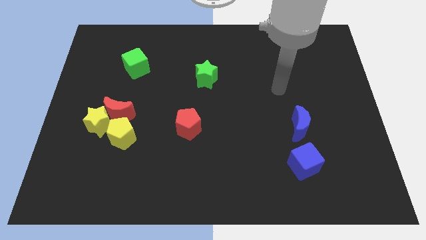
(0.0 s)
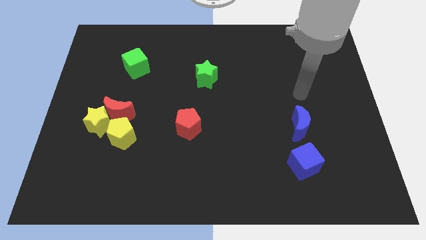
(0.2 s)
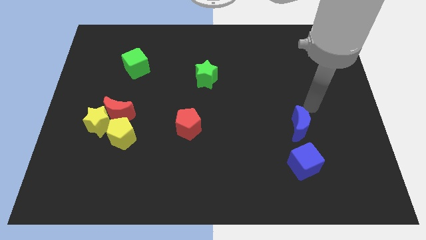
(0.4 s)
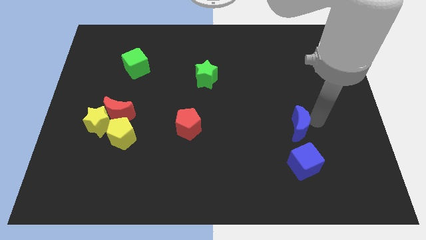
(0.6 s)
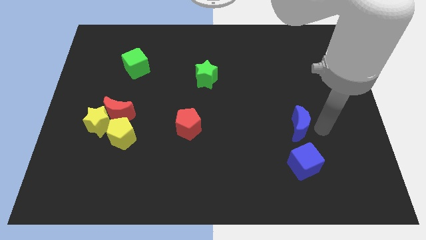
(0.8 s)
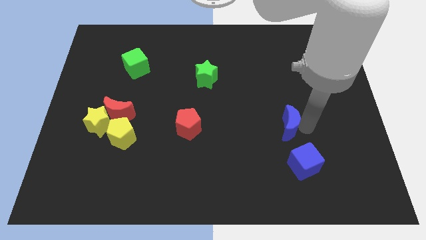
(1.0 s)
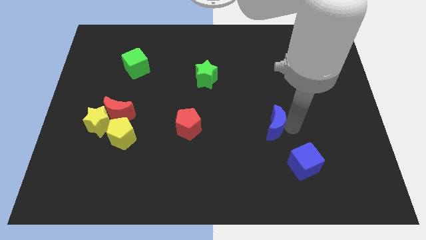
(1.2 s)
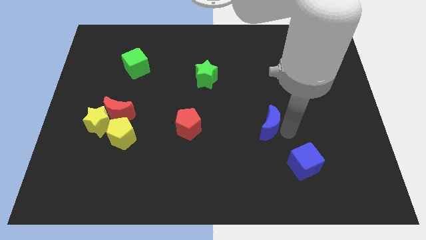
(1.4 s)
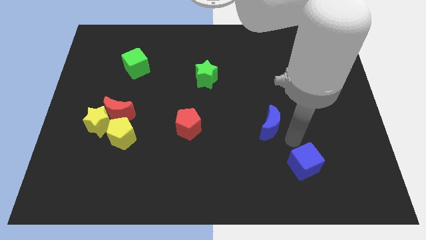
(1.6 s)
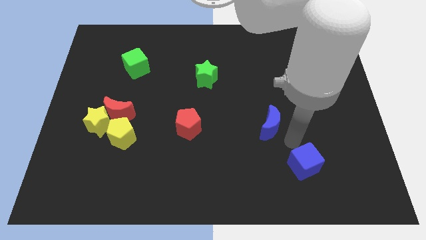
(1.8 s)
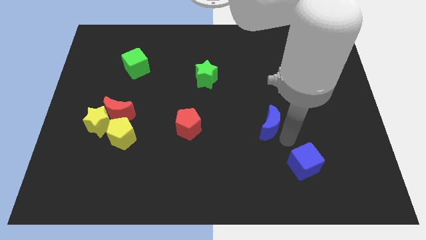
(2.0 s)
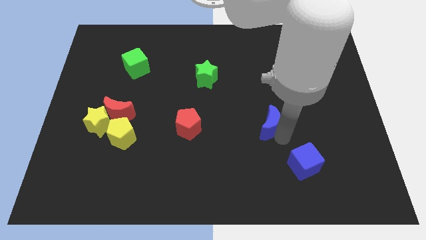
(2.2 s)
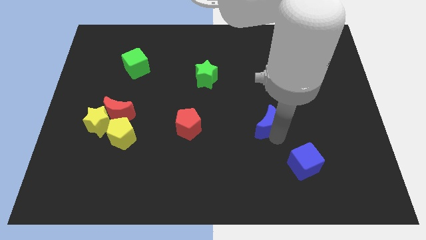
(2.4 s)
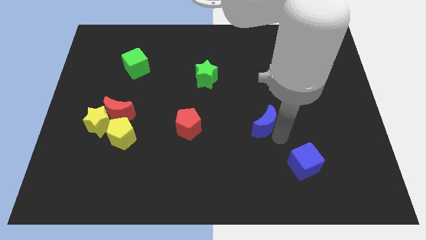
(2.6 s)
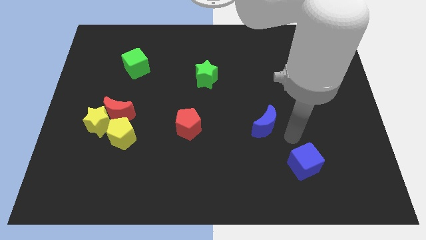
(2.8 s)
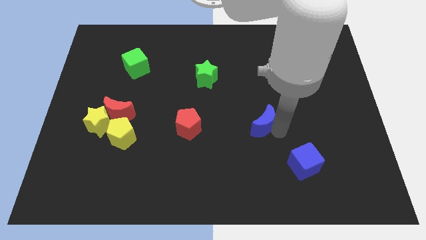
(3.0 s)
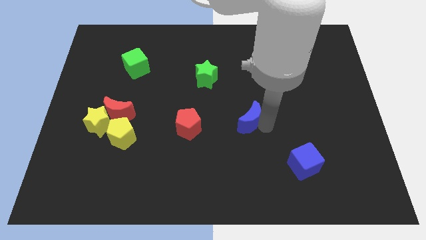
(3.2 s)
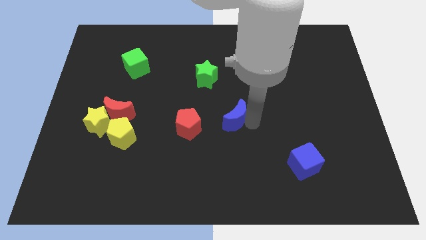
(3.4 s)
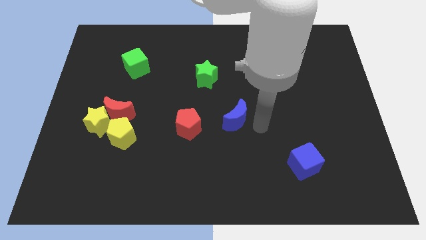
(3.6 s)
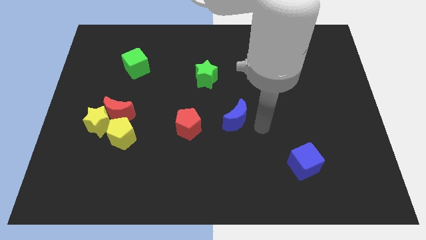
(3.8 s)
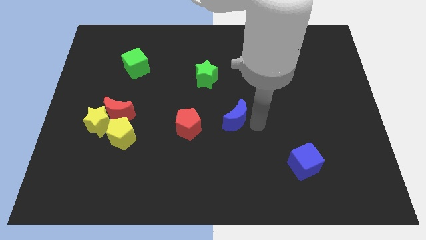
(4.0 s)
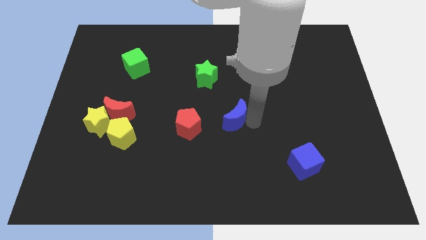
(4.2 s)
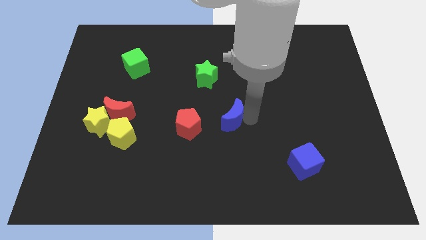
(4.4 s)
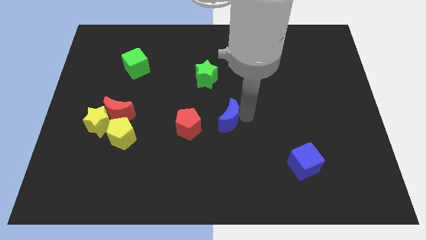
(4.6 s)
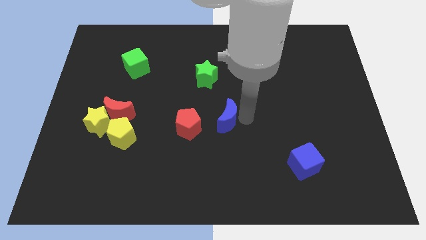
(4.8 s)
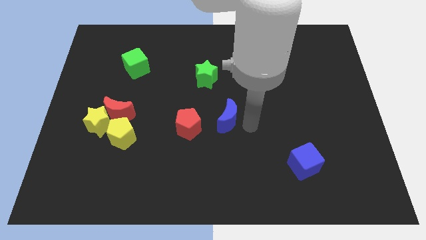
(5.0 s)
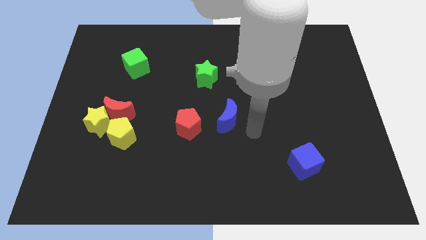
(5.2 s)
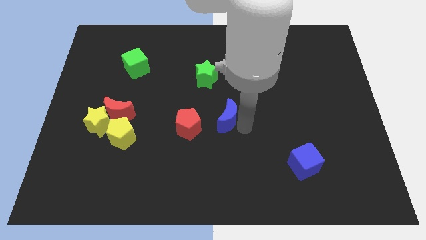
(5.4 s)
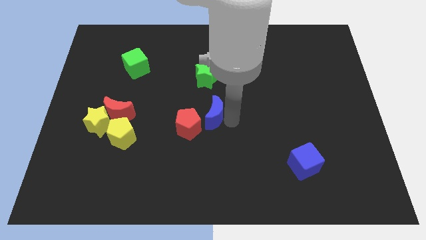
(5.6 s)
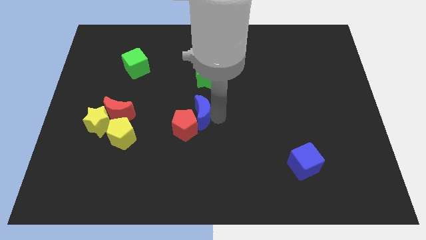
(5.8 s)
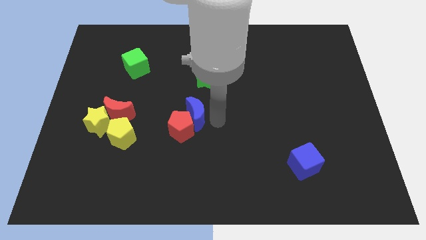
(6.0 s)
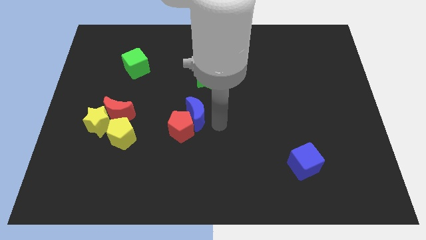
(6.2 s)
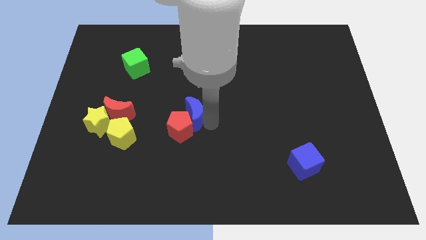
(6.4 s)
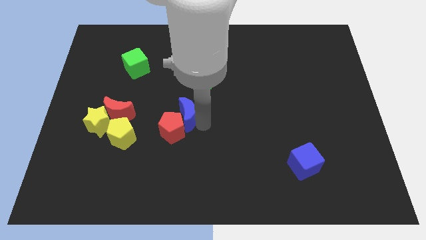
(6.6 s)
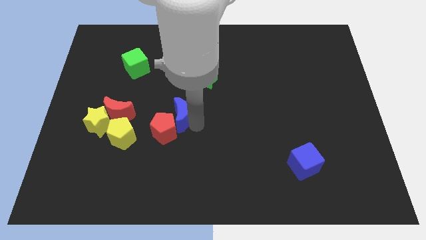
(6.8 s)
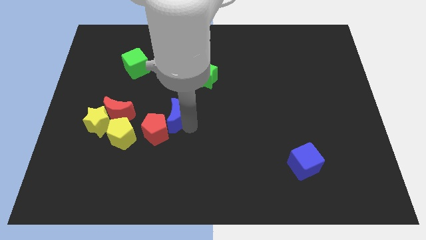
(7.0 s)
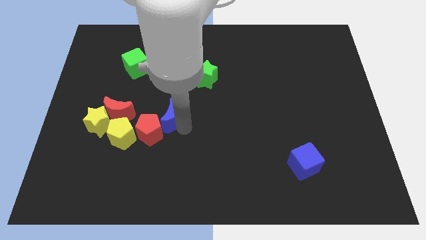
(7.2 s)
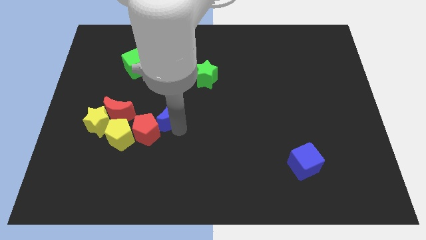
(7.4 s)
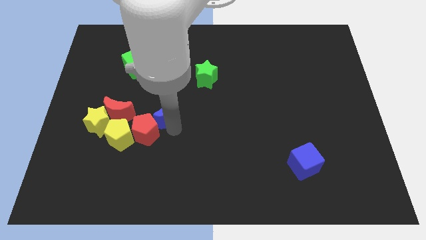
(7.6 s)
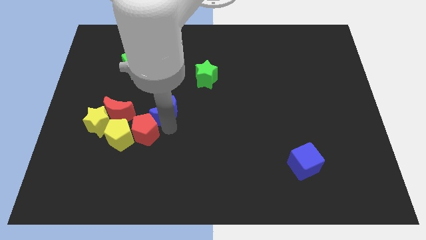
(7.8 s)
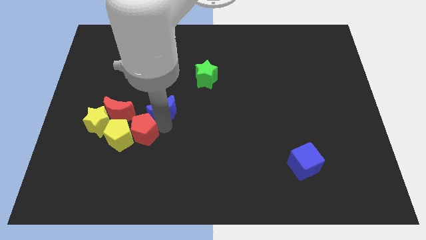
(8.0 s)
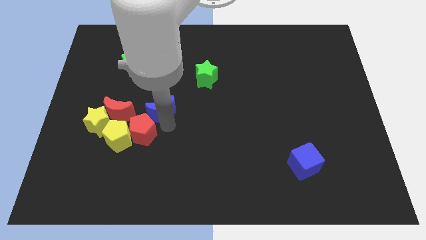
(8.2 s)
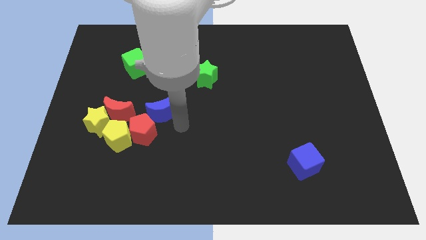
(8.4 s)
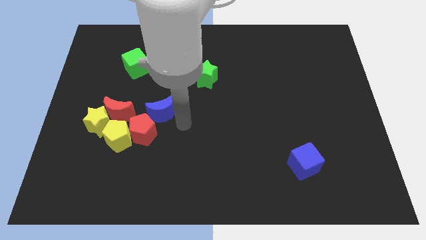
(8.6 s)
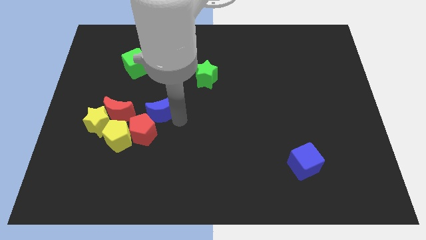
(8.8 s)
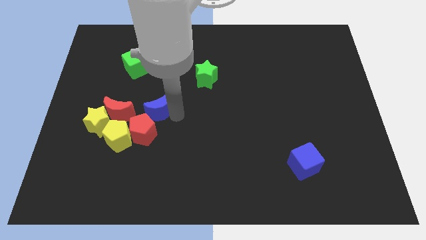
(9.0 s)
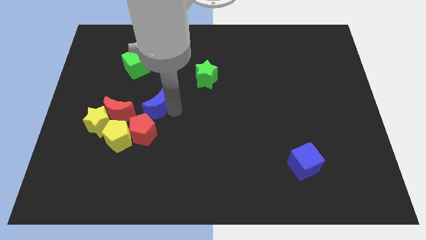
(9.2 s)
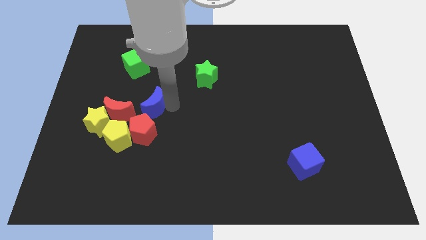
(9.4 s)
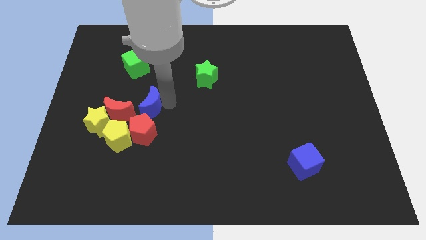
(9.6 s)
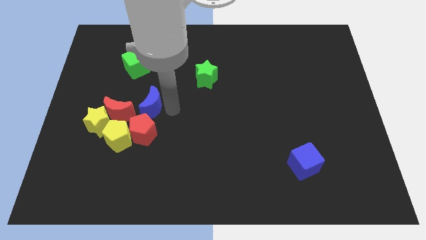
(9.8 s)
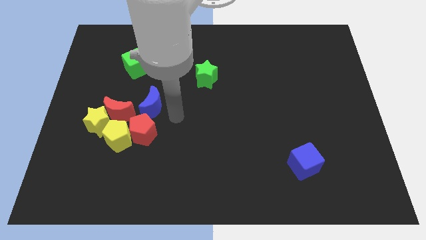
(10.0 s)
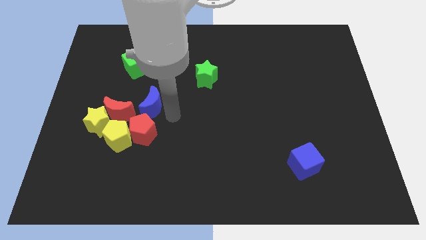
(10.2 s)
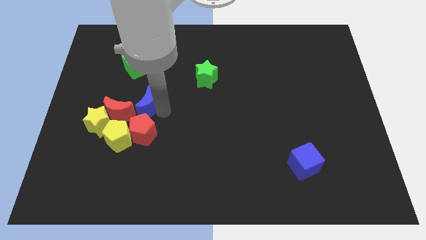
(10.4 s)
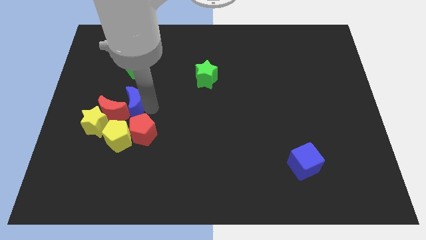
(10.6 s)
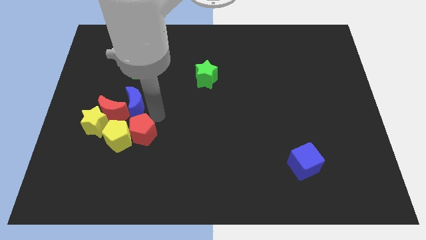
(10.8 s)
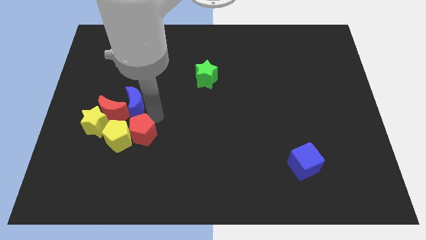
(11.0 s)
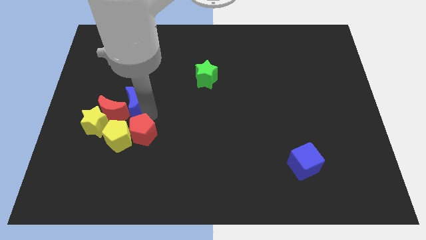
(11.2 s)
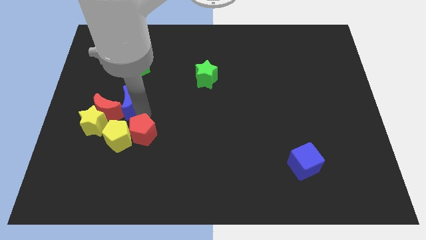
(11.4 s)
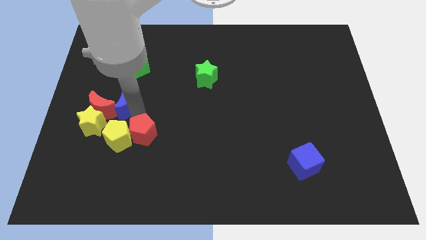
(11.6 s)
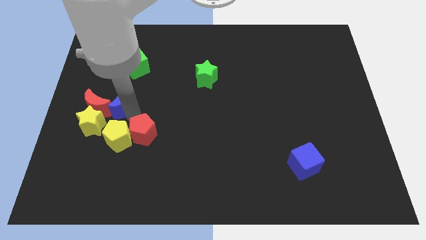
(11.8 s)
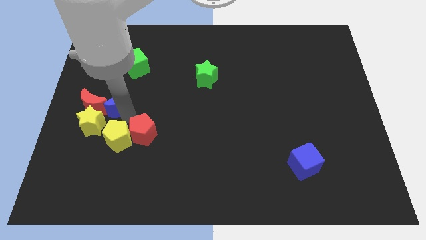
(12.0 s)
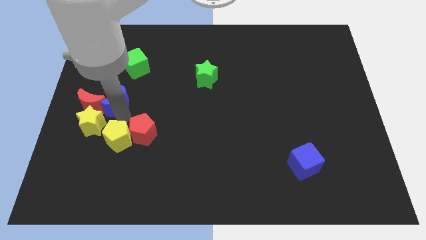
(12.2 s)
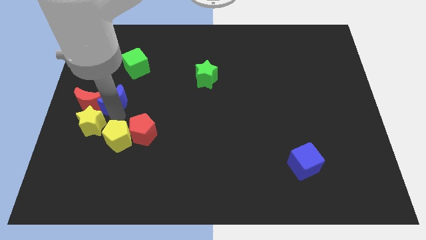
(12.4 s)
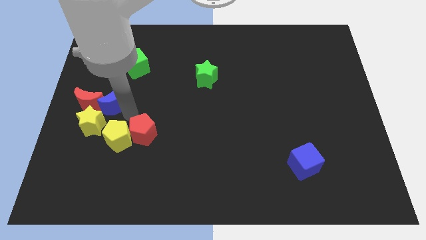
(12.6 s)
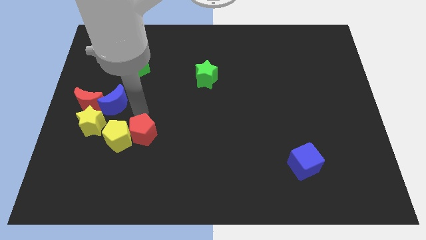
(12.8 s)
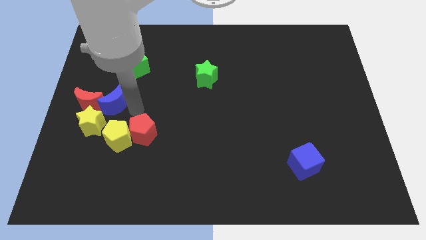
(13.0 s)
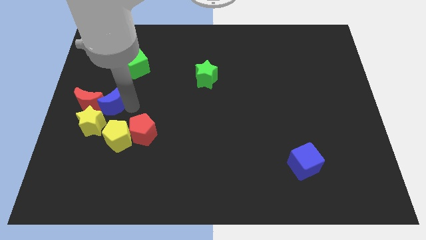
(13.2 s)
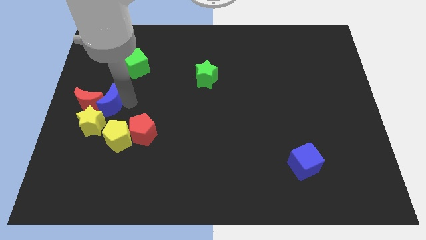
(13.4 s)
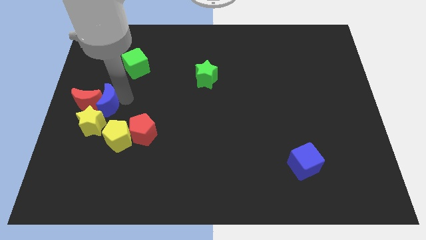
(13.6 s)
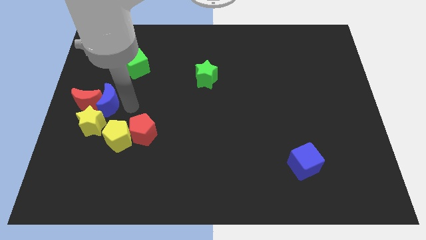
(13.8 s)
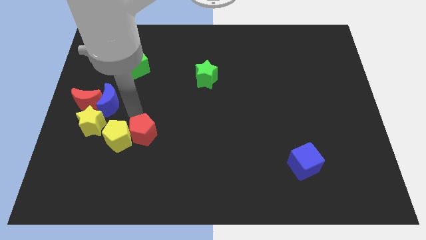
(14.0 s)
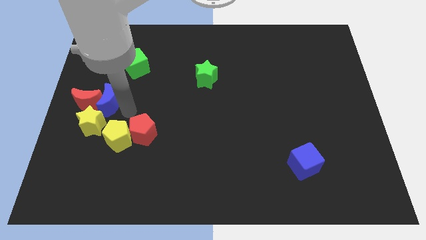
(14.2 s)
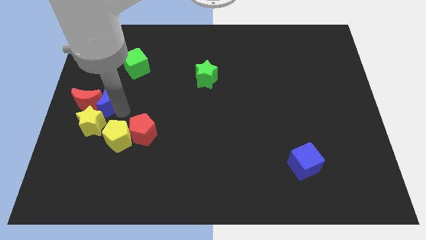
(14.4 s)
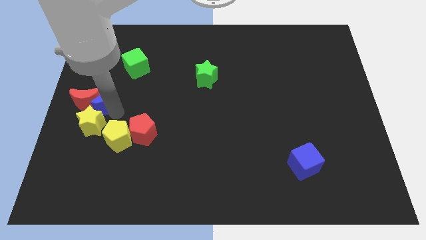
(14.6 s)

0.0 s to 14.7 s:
push the blue moon to the left side

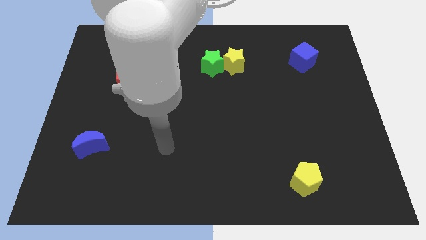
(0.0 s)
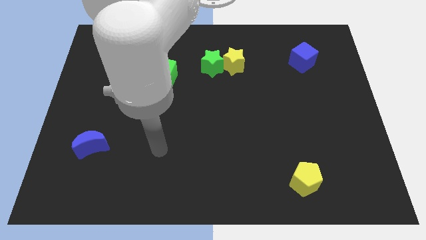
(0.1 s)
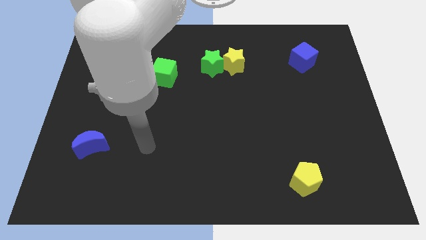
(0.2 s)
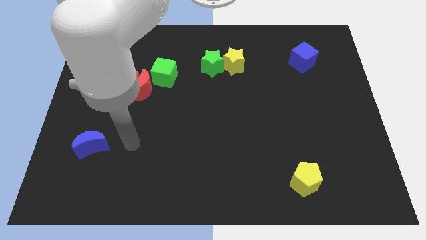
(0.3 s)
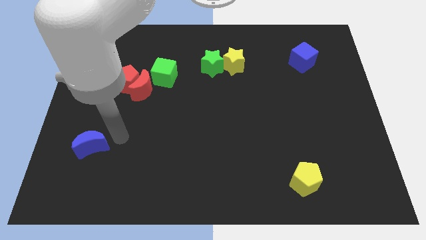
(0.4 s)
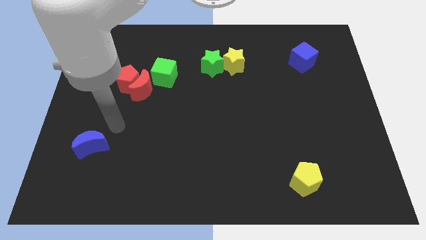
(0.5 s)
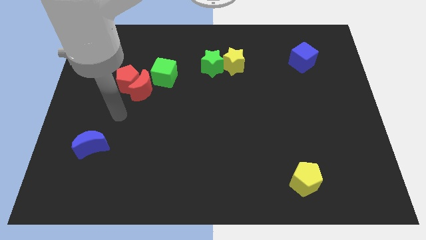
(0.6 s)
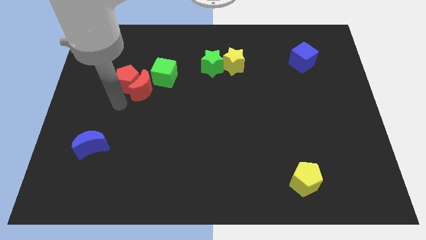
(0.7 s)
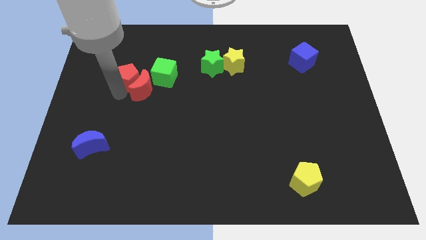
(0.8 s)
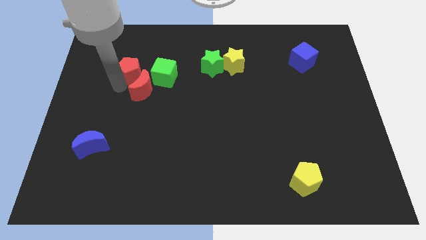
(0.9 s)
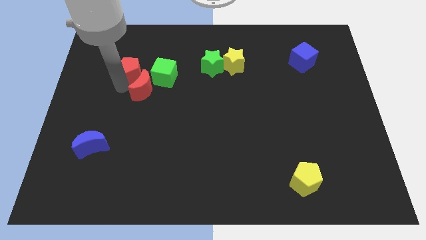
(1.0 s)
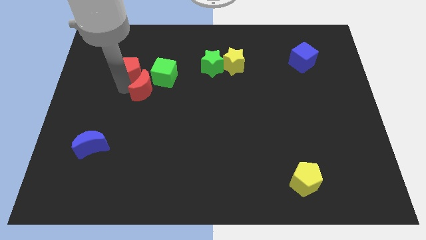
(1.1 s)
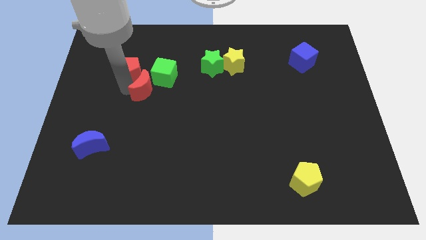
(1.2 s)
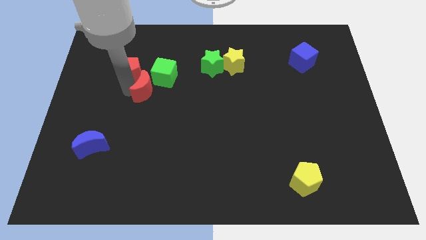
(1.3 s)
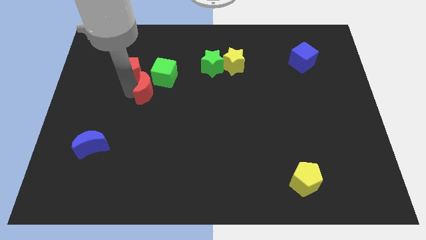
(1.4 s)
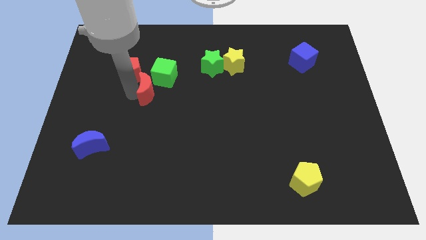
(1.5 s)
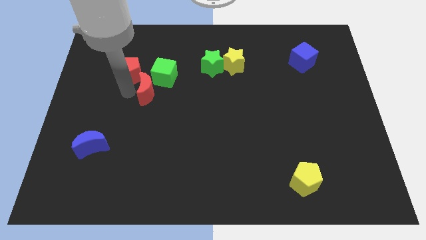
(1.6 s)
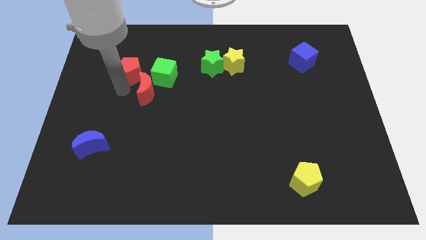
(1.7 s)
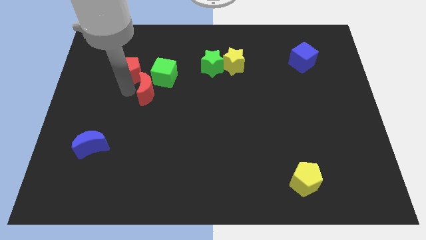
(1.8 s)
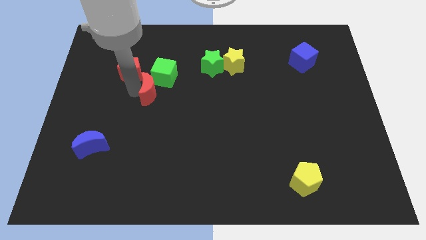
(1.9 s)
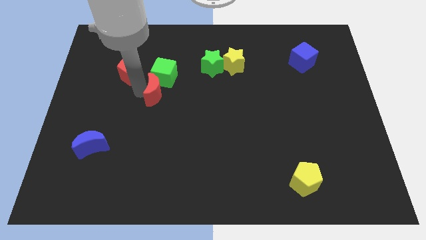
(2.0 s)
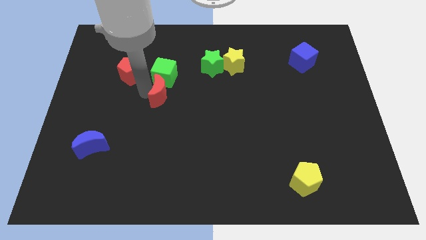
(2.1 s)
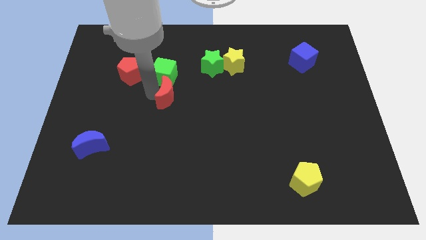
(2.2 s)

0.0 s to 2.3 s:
put the red moon to the center of the board
